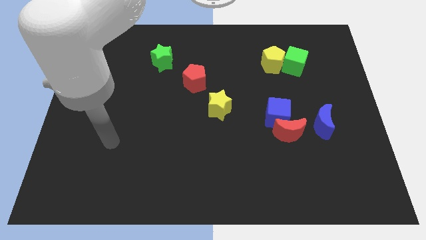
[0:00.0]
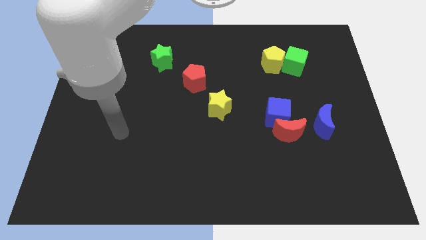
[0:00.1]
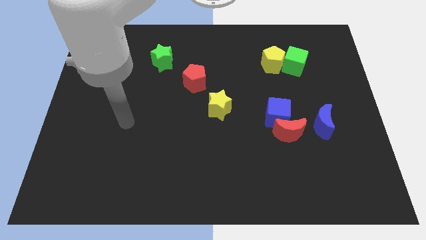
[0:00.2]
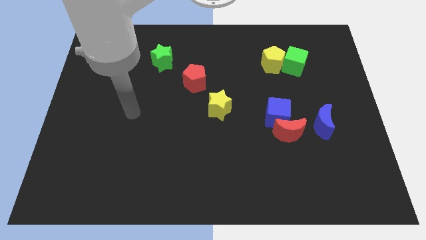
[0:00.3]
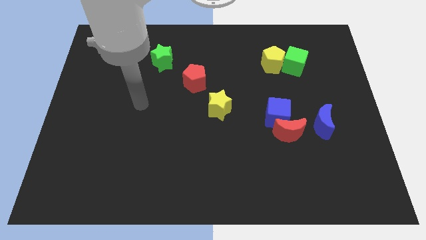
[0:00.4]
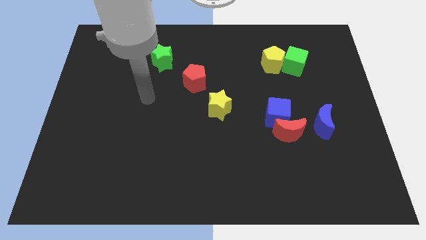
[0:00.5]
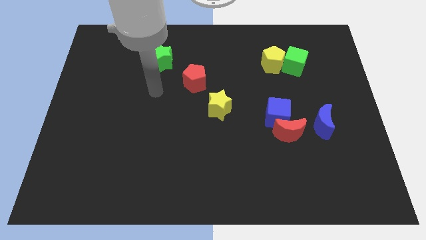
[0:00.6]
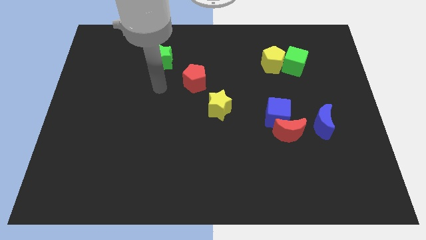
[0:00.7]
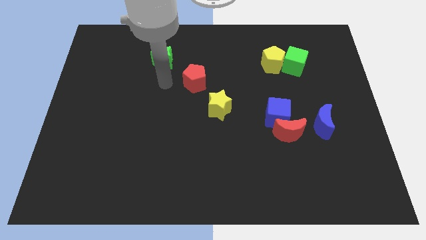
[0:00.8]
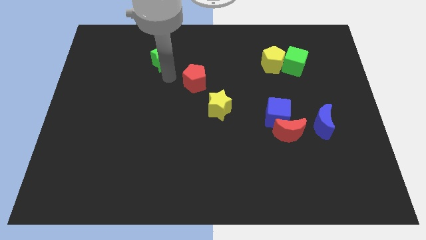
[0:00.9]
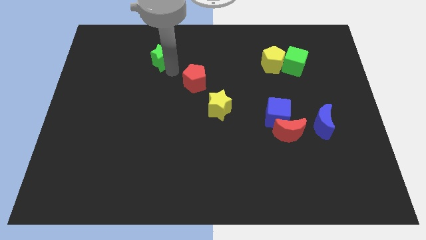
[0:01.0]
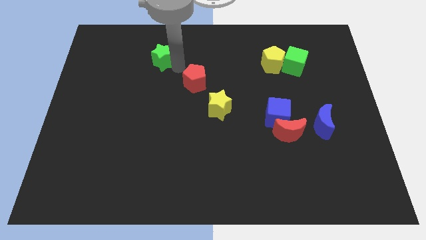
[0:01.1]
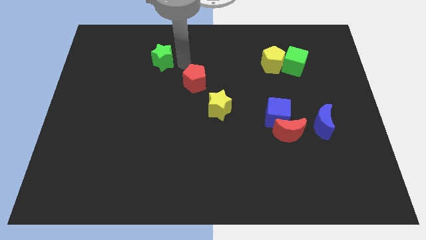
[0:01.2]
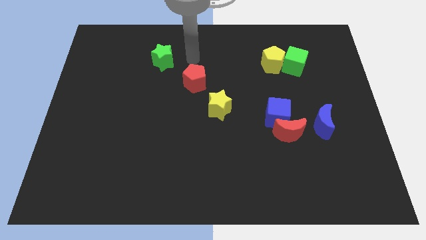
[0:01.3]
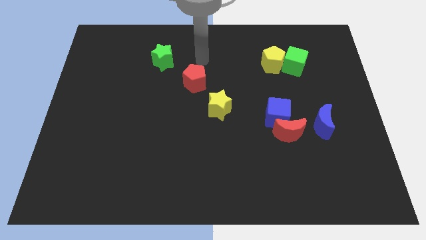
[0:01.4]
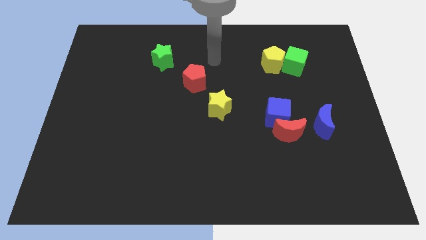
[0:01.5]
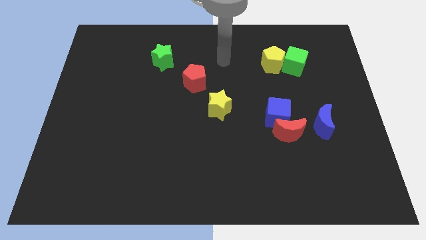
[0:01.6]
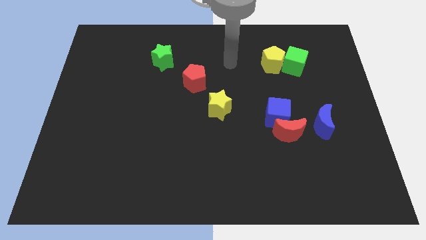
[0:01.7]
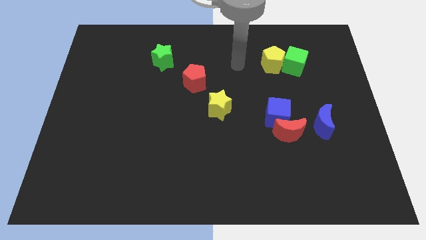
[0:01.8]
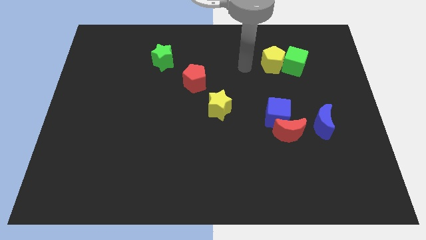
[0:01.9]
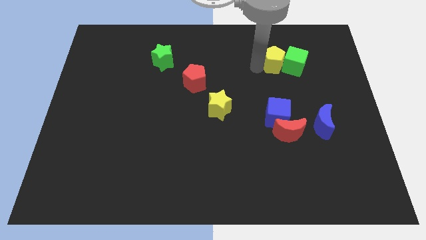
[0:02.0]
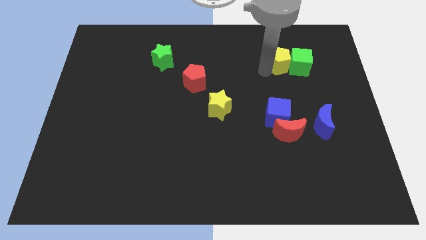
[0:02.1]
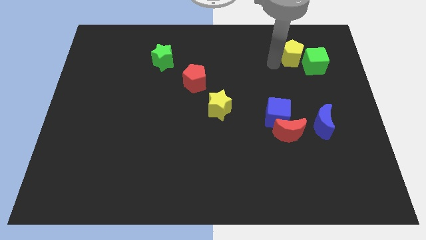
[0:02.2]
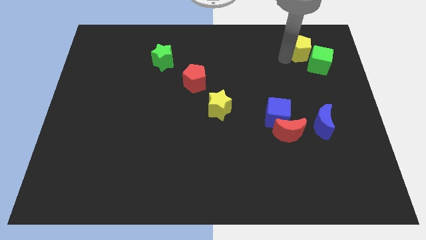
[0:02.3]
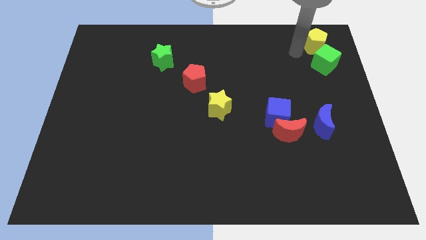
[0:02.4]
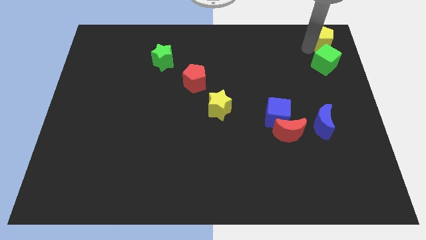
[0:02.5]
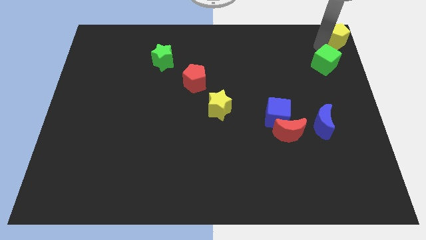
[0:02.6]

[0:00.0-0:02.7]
pull the green cube apart from the yellow pentagon

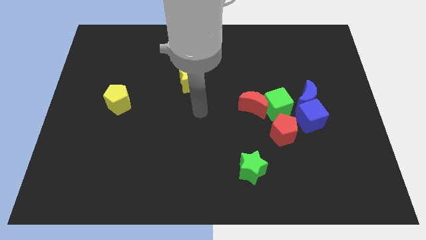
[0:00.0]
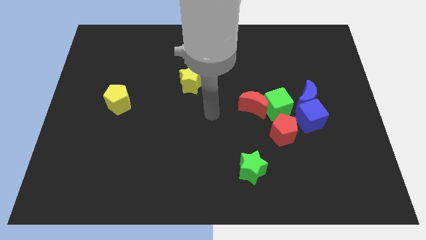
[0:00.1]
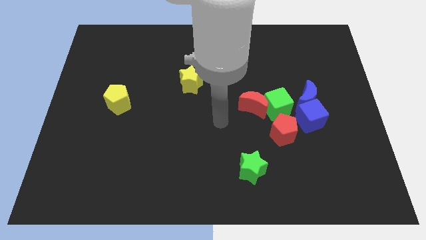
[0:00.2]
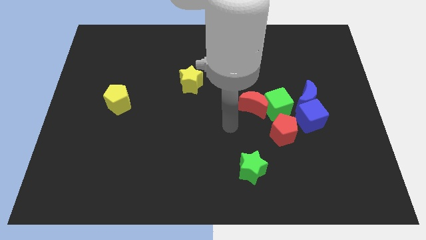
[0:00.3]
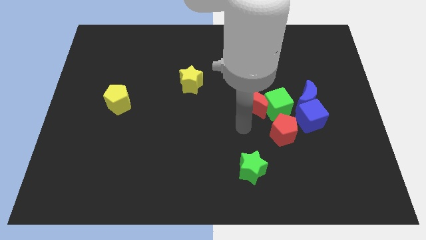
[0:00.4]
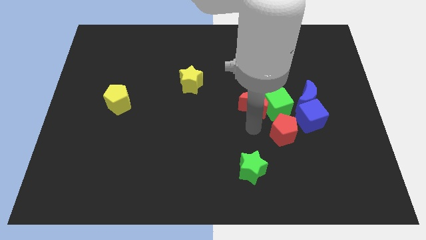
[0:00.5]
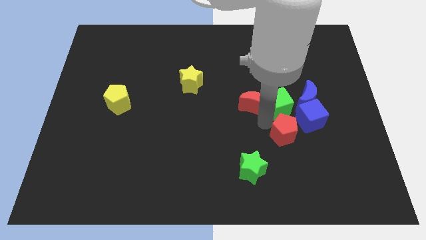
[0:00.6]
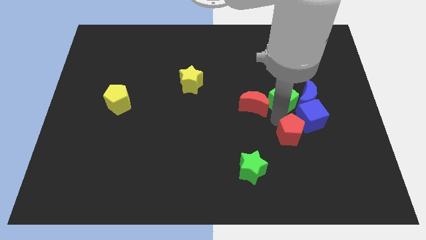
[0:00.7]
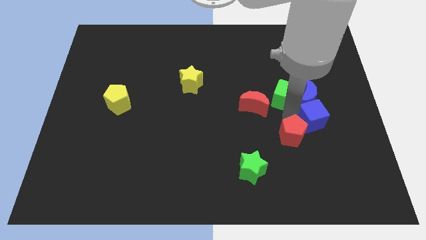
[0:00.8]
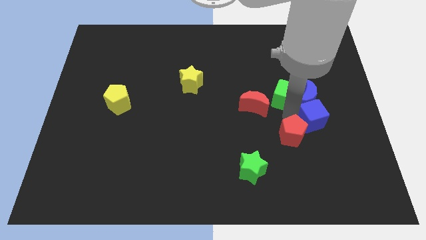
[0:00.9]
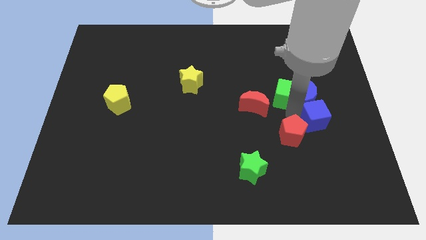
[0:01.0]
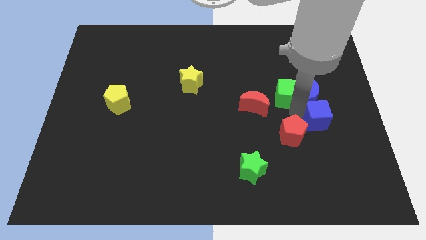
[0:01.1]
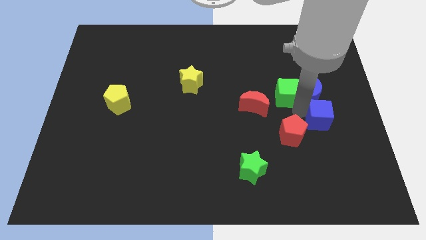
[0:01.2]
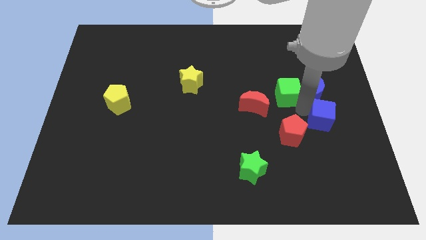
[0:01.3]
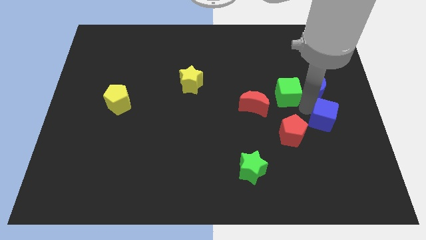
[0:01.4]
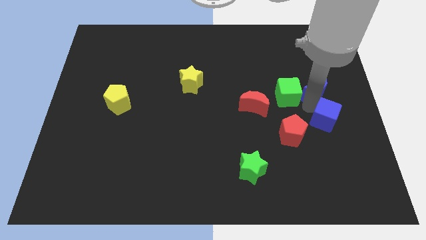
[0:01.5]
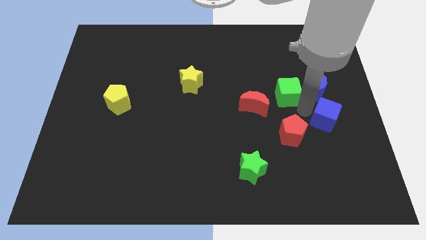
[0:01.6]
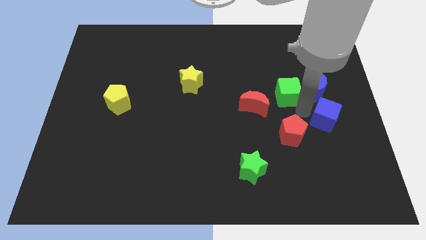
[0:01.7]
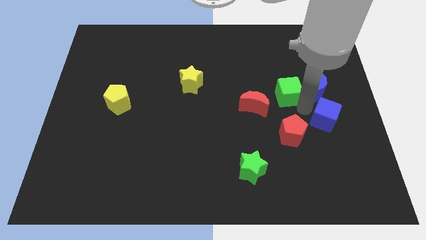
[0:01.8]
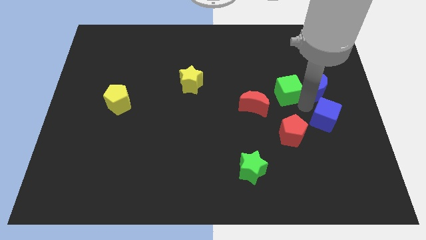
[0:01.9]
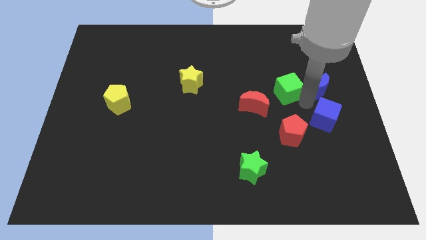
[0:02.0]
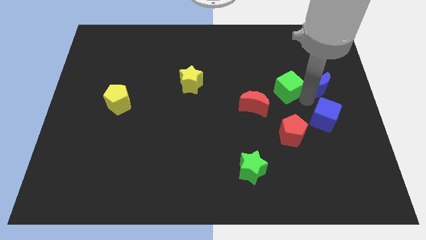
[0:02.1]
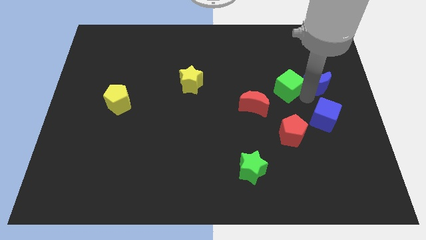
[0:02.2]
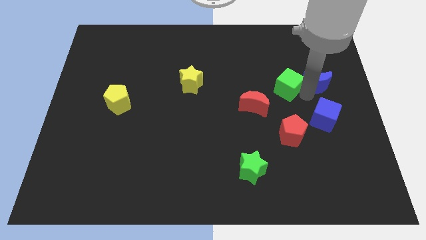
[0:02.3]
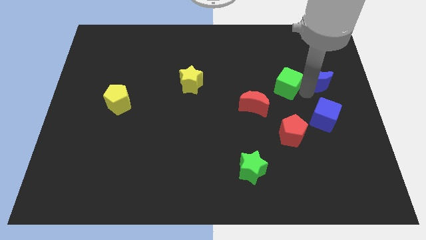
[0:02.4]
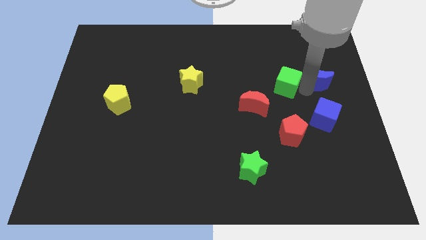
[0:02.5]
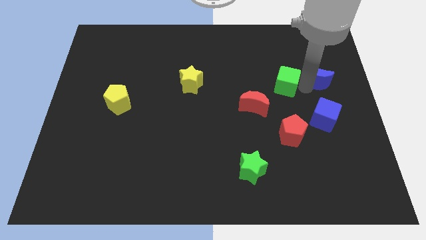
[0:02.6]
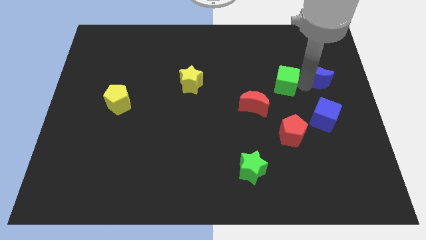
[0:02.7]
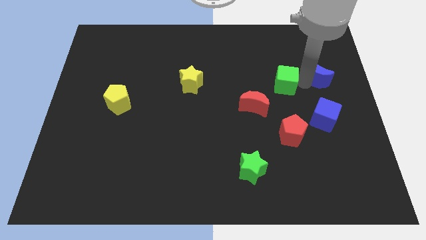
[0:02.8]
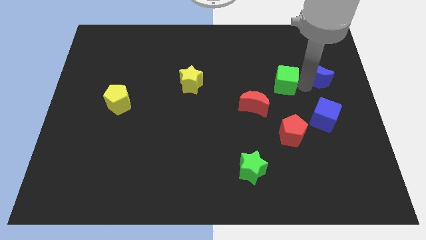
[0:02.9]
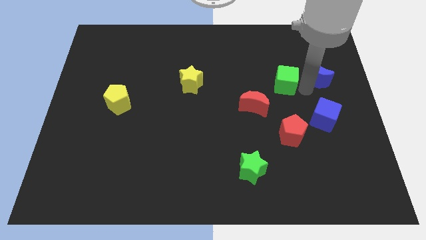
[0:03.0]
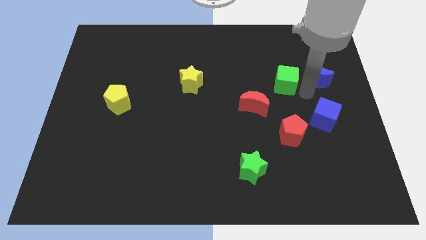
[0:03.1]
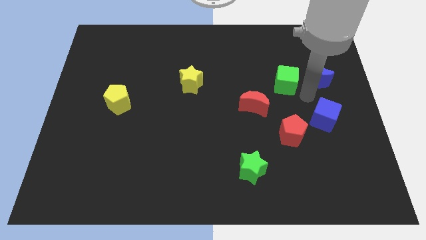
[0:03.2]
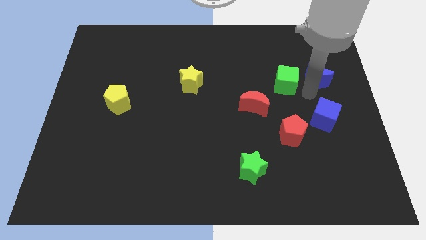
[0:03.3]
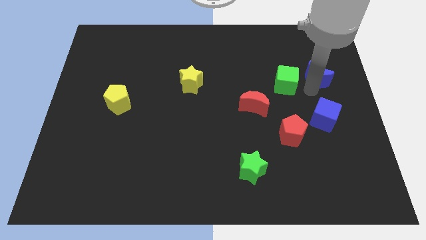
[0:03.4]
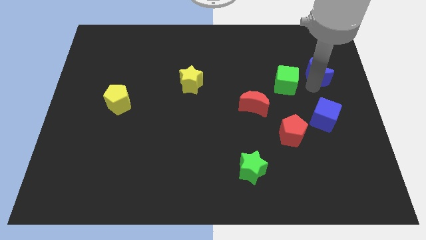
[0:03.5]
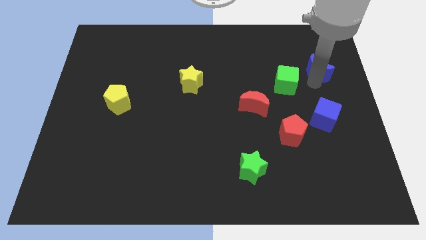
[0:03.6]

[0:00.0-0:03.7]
pull the blue moon apart from the blue cube and green cube

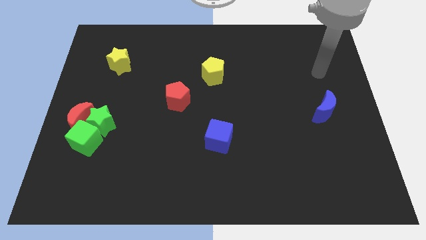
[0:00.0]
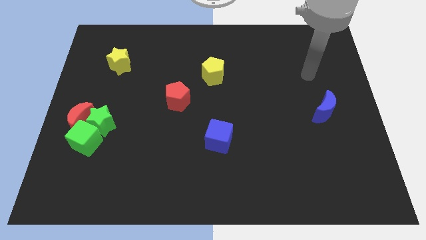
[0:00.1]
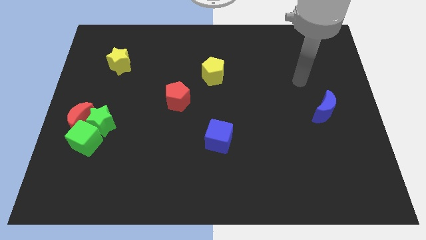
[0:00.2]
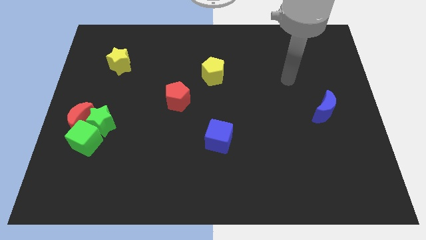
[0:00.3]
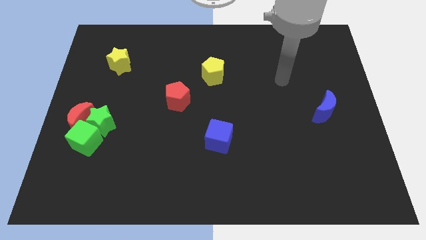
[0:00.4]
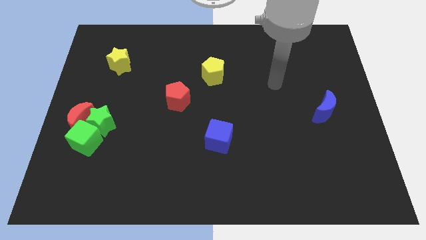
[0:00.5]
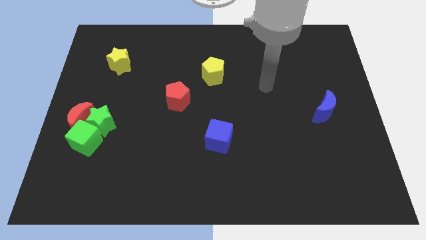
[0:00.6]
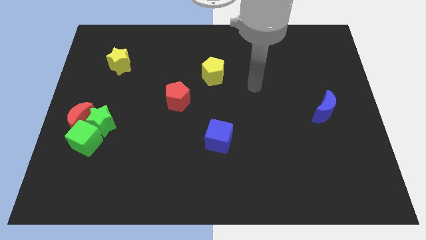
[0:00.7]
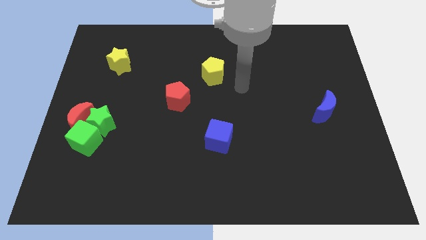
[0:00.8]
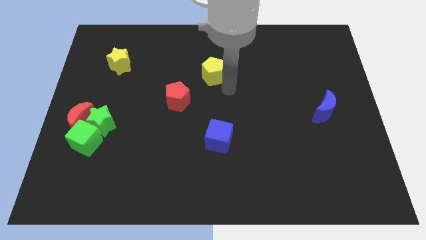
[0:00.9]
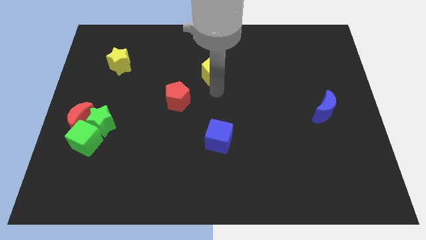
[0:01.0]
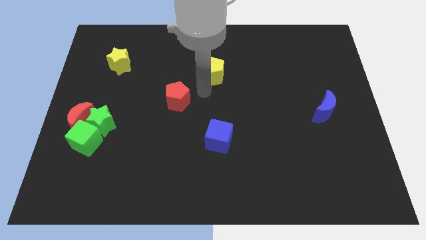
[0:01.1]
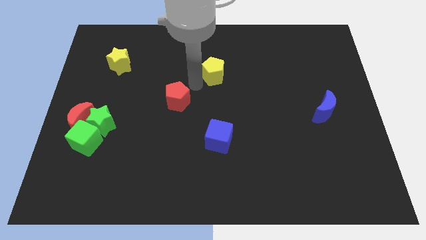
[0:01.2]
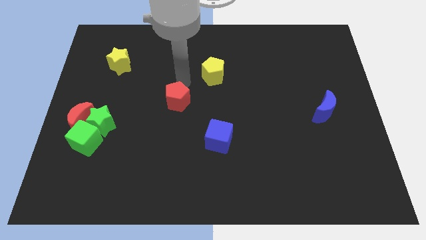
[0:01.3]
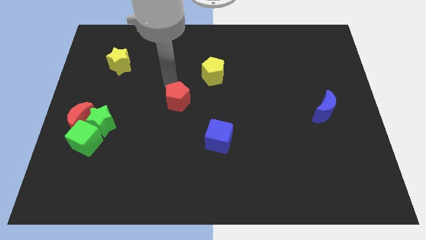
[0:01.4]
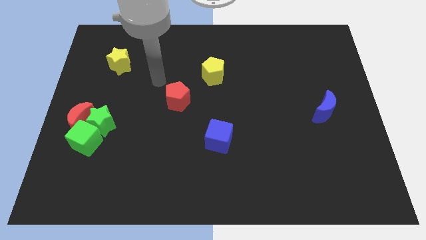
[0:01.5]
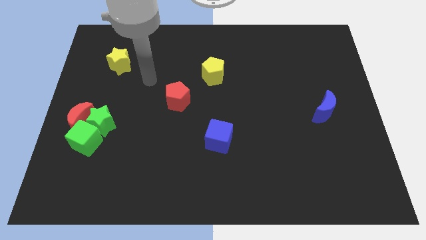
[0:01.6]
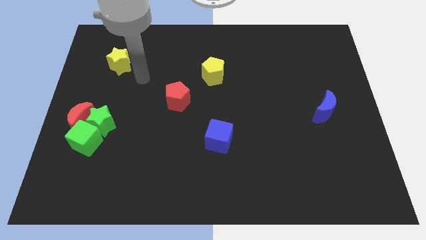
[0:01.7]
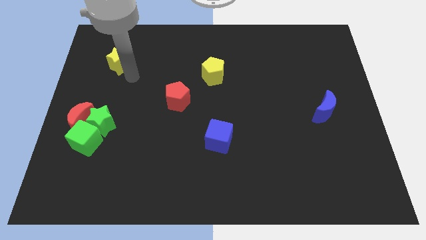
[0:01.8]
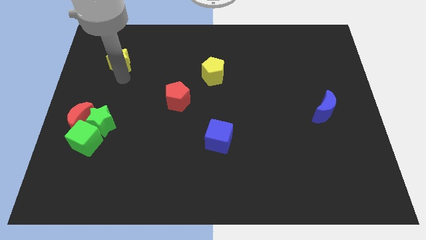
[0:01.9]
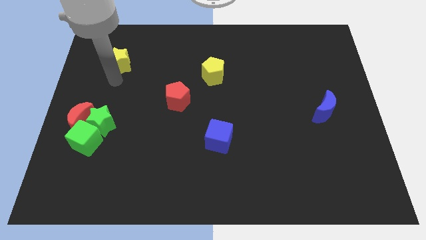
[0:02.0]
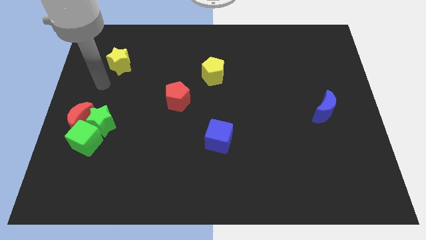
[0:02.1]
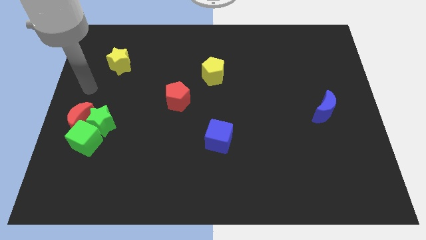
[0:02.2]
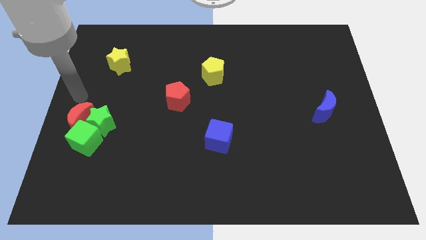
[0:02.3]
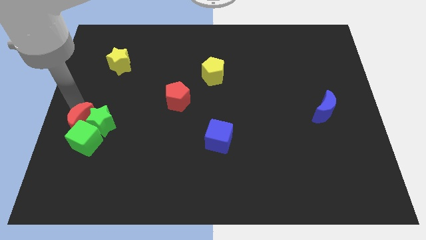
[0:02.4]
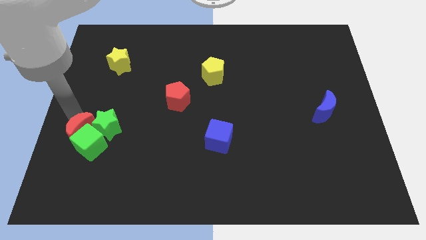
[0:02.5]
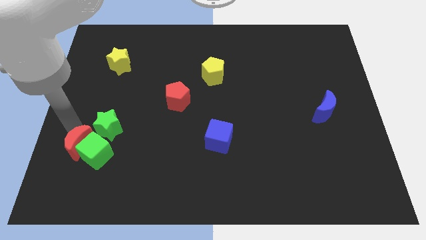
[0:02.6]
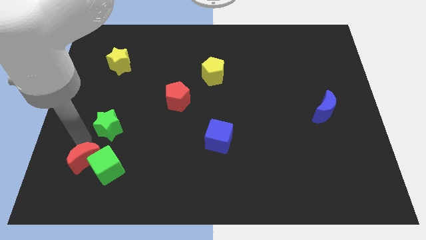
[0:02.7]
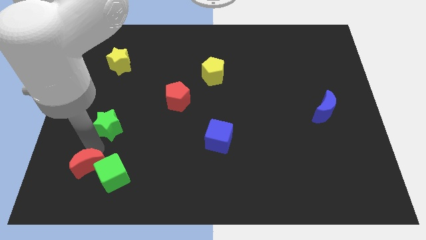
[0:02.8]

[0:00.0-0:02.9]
move the green star away from the red moon and green cube
